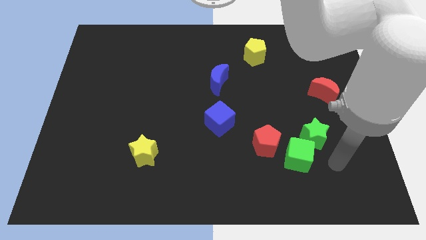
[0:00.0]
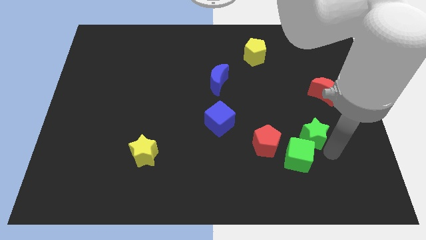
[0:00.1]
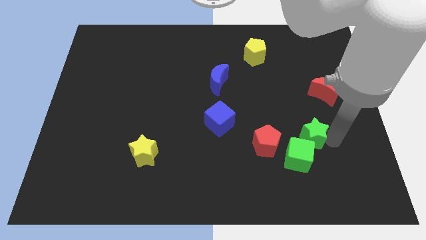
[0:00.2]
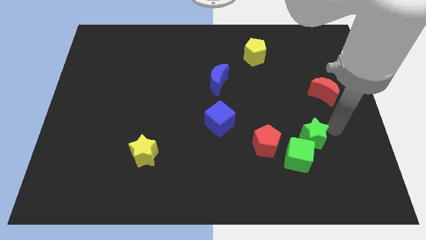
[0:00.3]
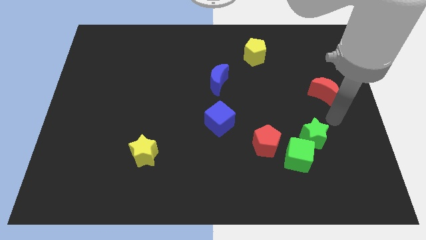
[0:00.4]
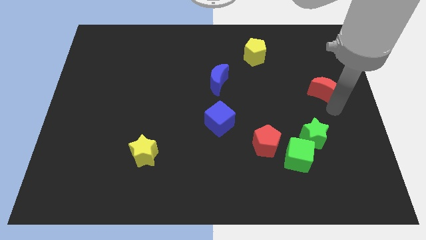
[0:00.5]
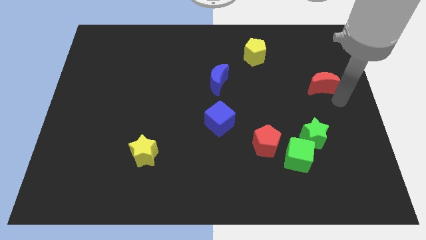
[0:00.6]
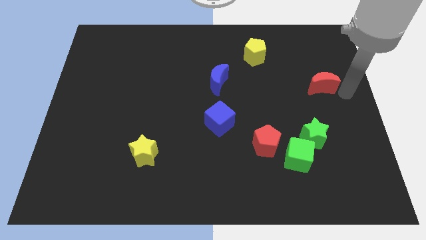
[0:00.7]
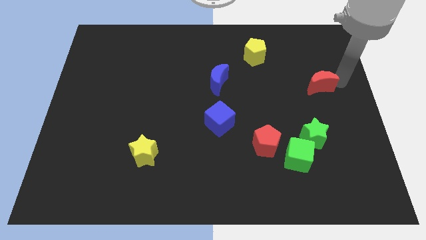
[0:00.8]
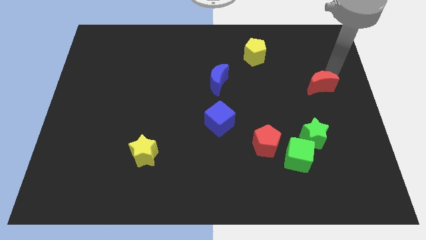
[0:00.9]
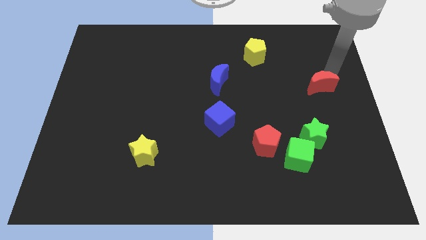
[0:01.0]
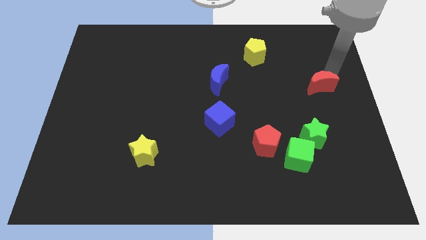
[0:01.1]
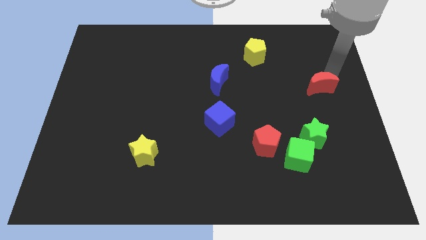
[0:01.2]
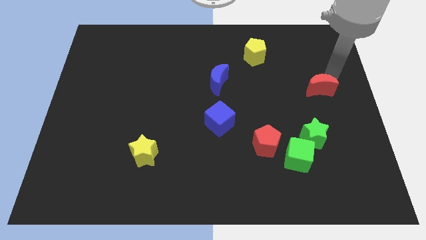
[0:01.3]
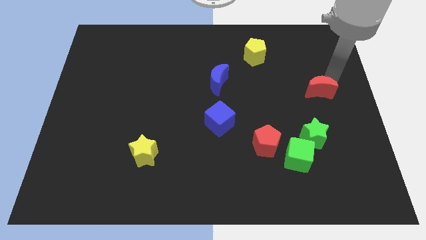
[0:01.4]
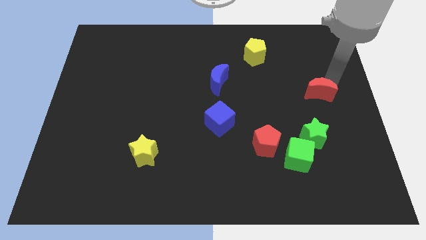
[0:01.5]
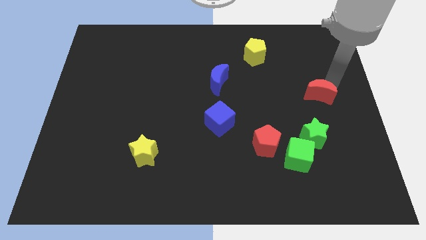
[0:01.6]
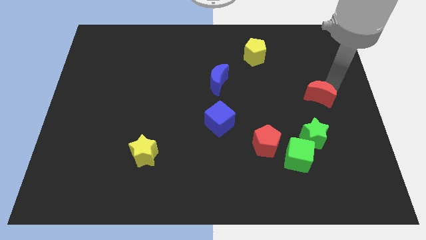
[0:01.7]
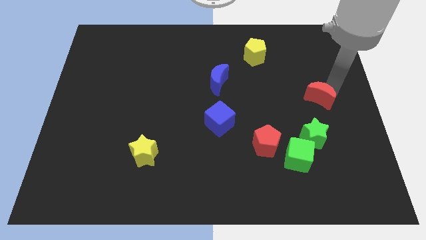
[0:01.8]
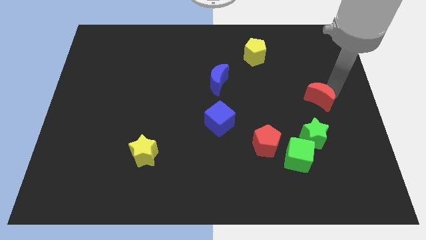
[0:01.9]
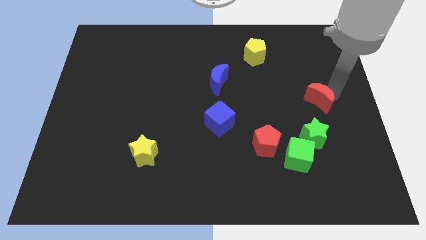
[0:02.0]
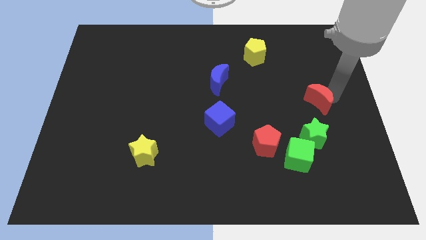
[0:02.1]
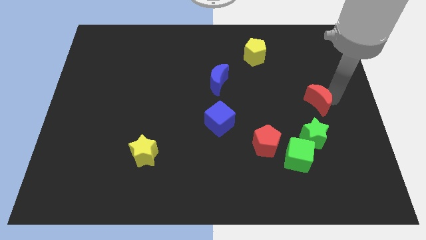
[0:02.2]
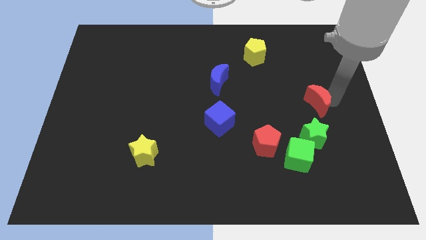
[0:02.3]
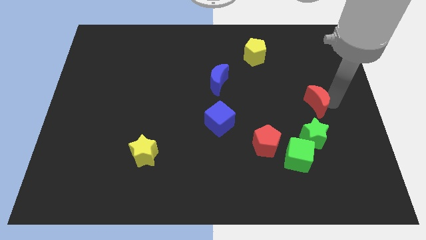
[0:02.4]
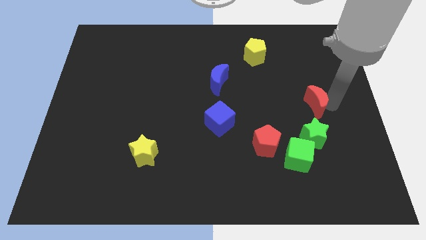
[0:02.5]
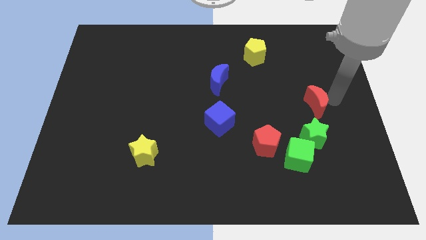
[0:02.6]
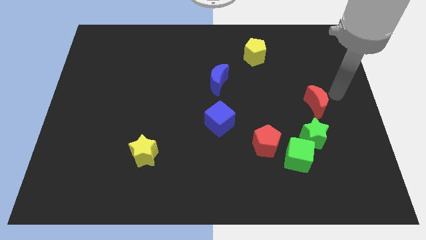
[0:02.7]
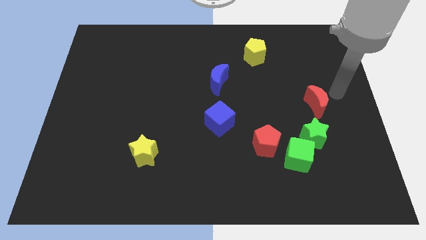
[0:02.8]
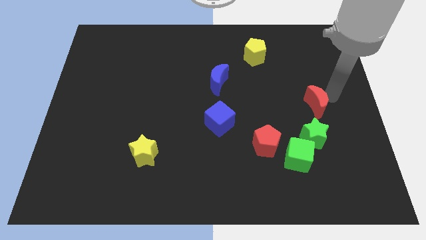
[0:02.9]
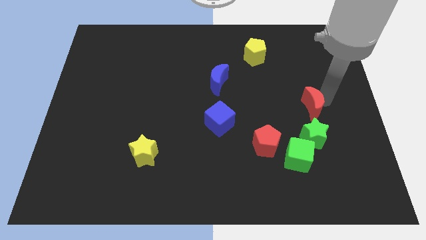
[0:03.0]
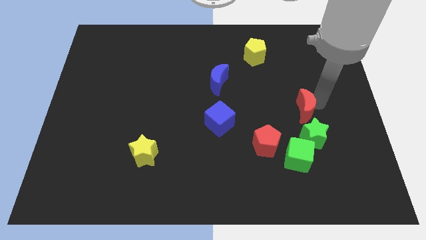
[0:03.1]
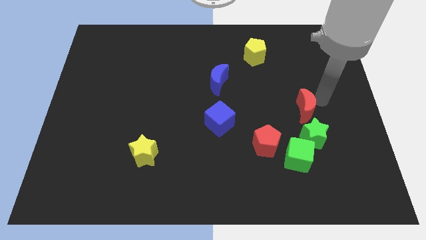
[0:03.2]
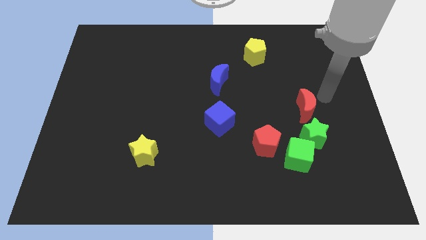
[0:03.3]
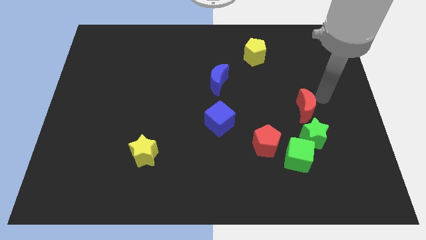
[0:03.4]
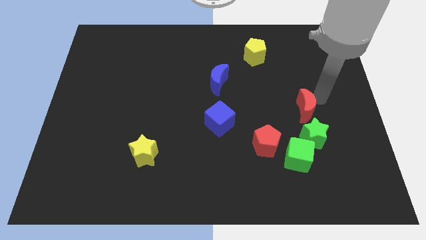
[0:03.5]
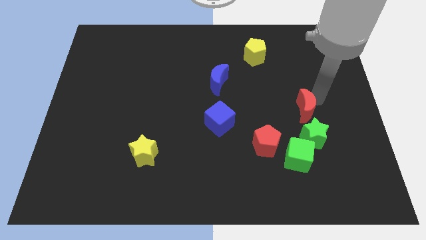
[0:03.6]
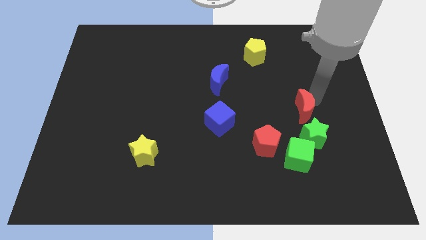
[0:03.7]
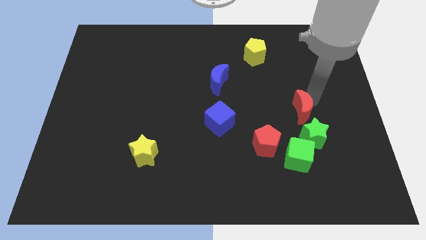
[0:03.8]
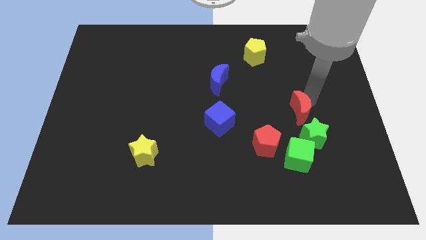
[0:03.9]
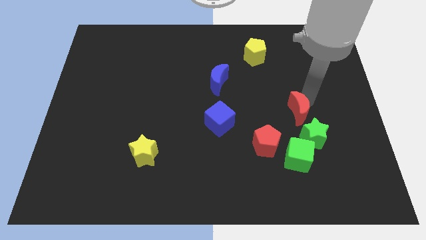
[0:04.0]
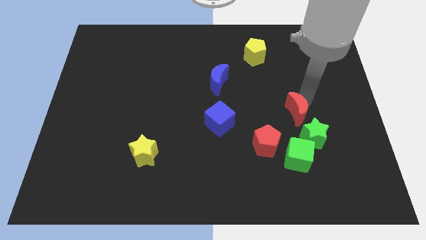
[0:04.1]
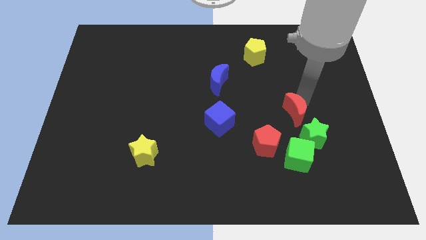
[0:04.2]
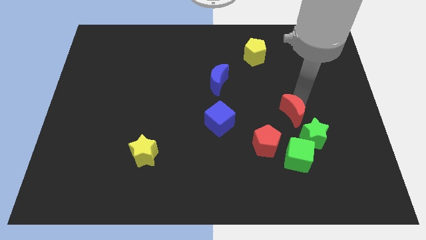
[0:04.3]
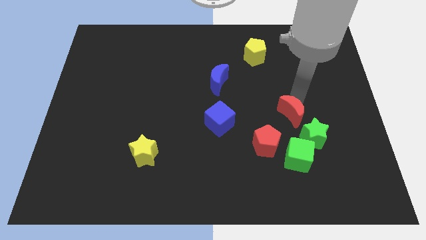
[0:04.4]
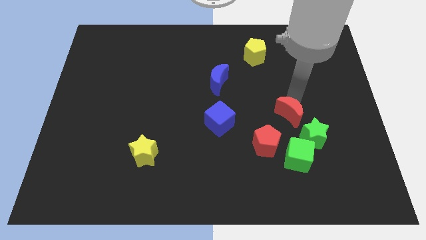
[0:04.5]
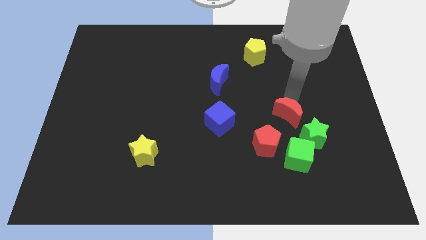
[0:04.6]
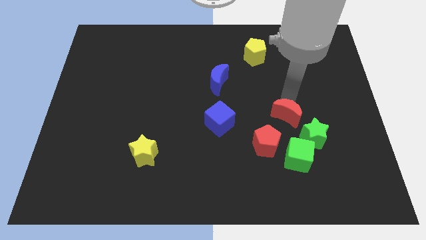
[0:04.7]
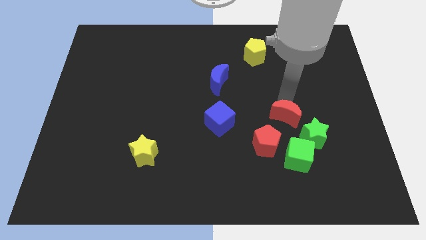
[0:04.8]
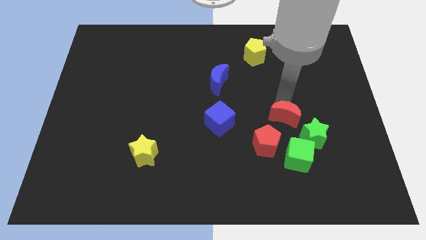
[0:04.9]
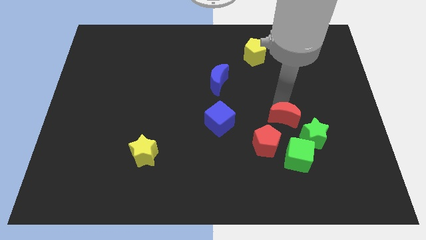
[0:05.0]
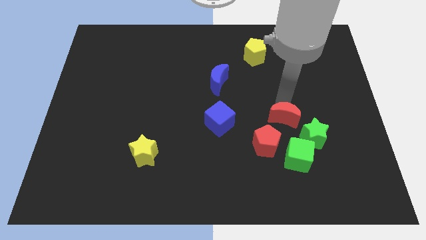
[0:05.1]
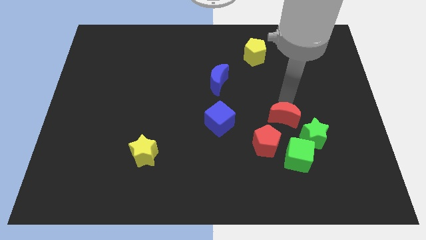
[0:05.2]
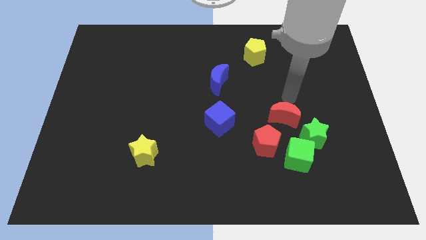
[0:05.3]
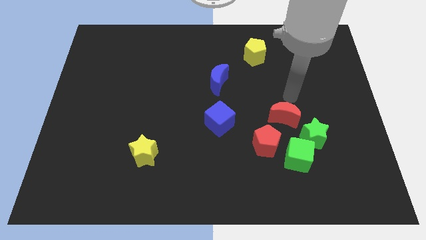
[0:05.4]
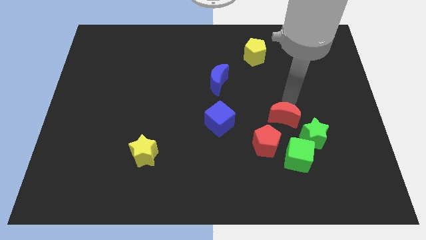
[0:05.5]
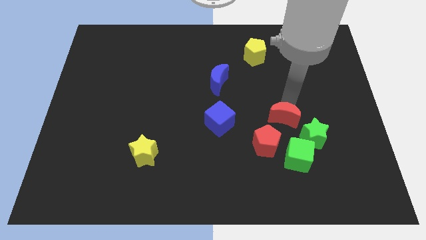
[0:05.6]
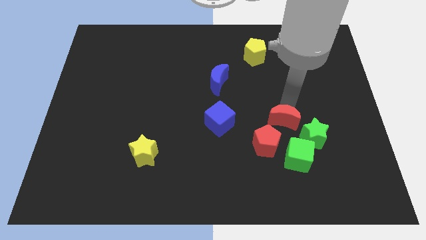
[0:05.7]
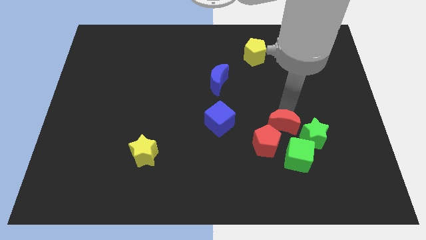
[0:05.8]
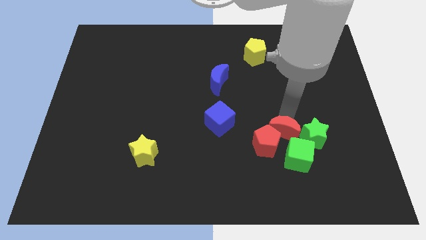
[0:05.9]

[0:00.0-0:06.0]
put the red moon next to the red pentagon

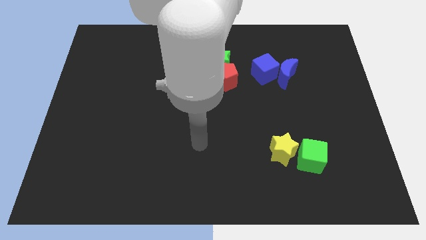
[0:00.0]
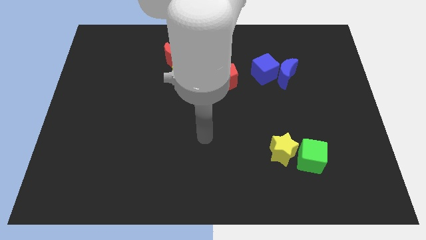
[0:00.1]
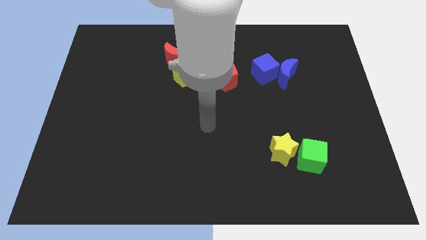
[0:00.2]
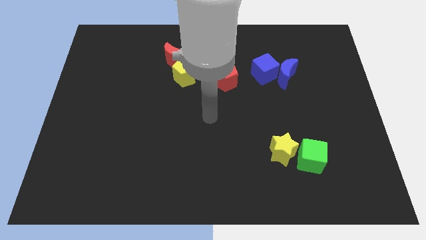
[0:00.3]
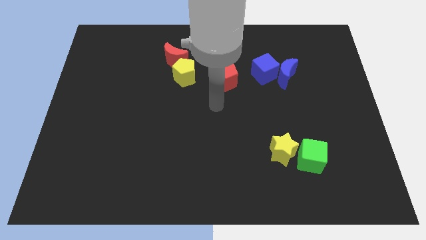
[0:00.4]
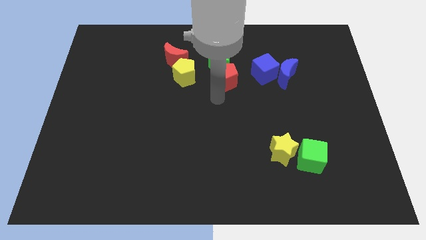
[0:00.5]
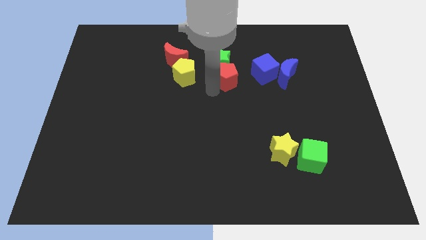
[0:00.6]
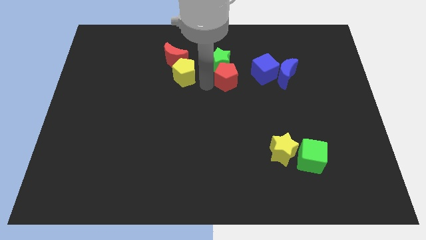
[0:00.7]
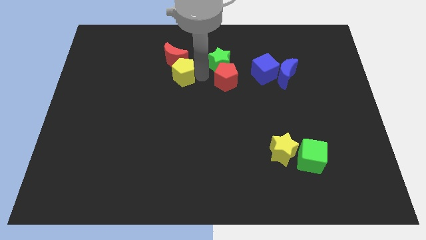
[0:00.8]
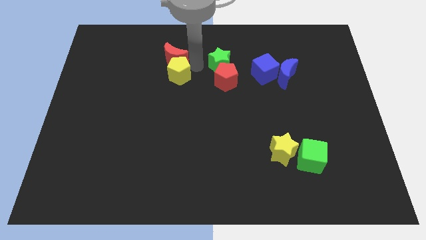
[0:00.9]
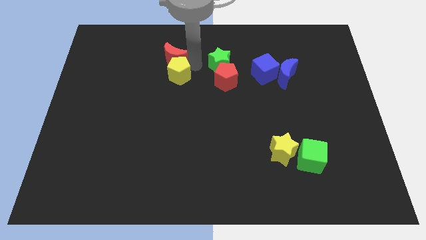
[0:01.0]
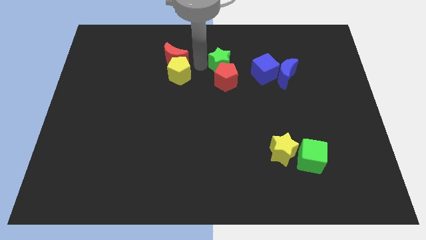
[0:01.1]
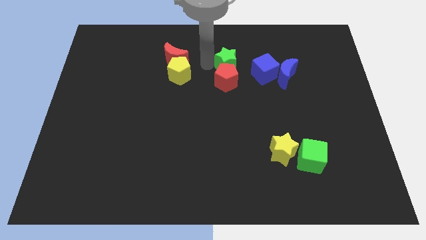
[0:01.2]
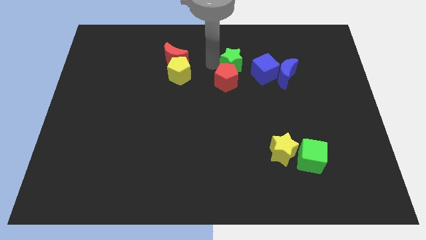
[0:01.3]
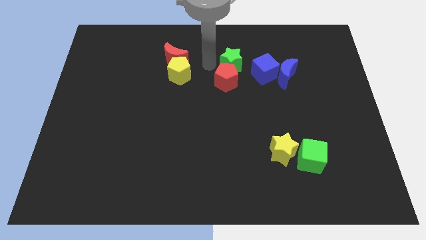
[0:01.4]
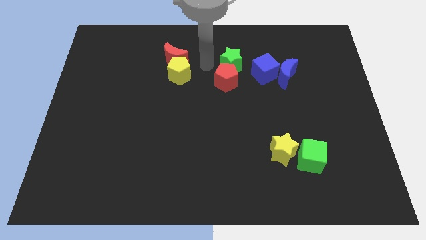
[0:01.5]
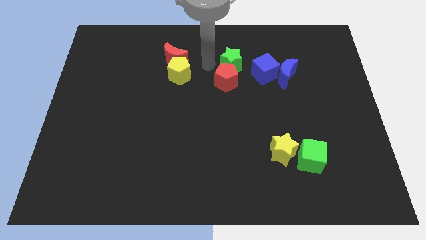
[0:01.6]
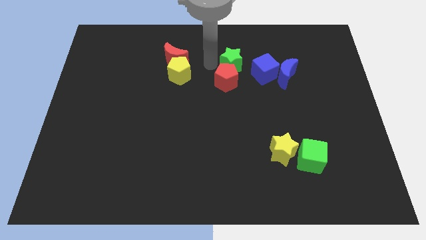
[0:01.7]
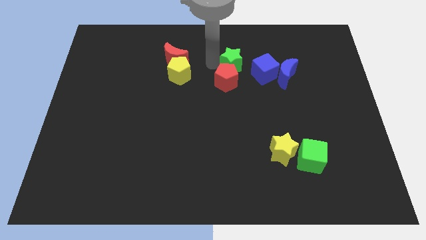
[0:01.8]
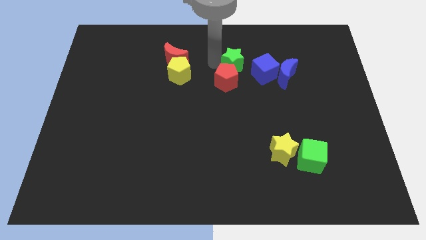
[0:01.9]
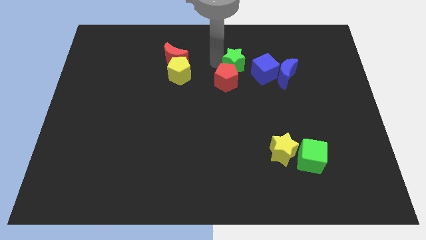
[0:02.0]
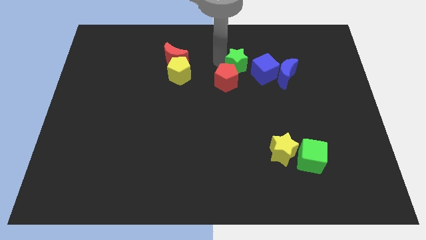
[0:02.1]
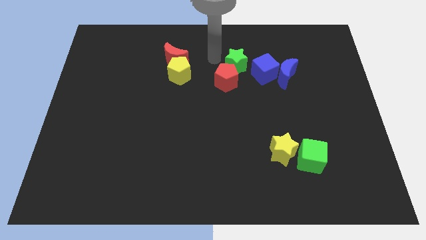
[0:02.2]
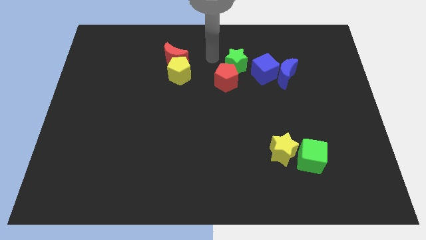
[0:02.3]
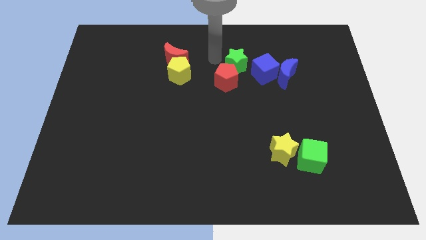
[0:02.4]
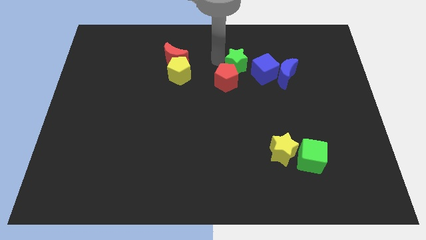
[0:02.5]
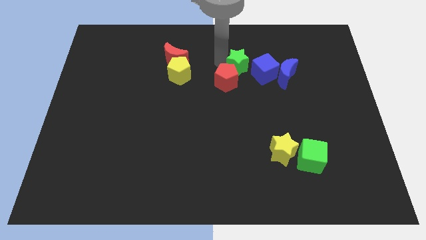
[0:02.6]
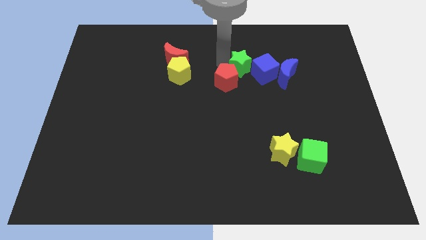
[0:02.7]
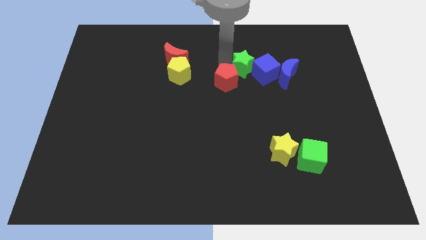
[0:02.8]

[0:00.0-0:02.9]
push the green star next to the blue cube
